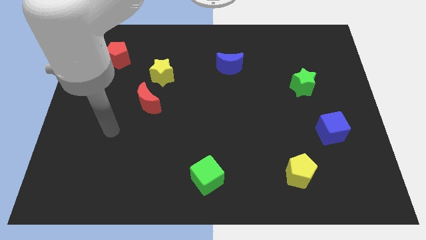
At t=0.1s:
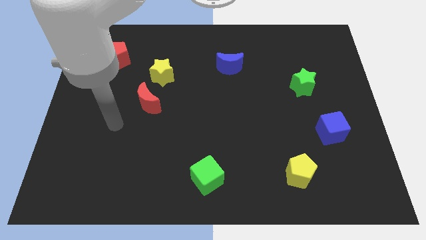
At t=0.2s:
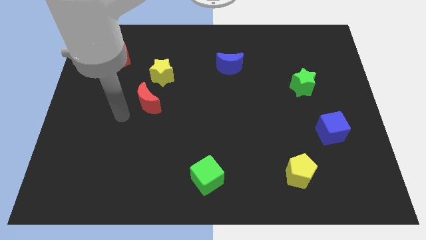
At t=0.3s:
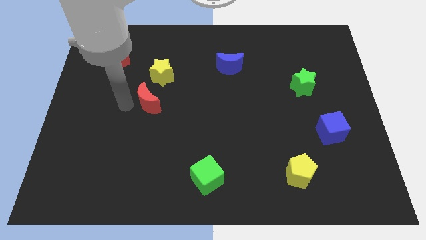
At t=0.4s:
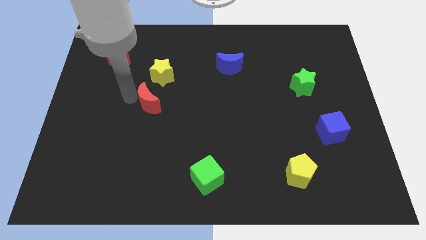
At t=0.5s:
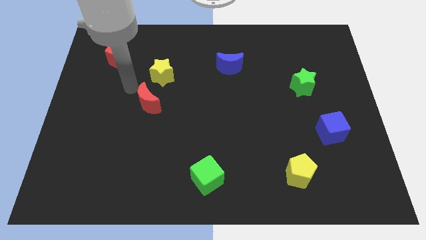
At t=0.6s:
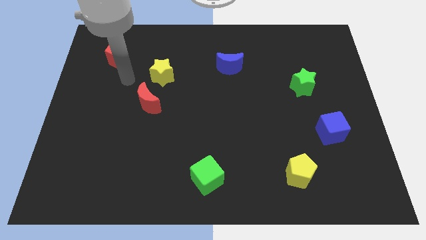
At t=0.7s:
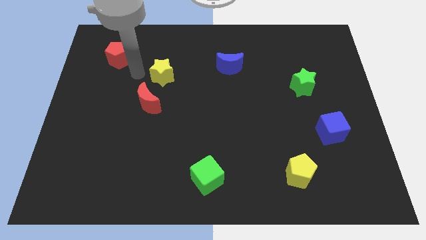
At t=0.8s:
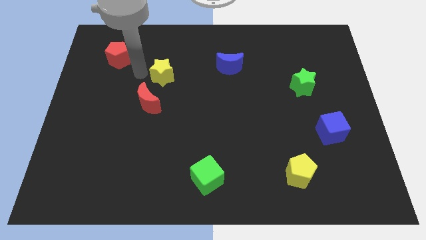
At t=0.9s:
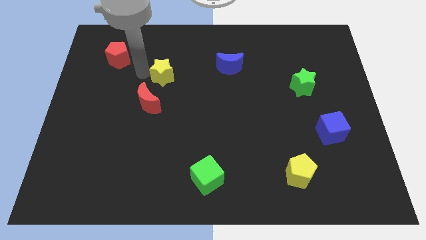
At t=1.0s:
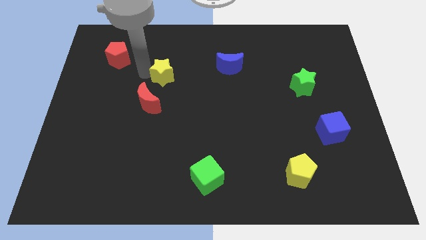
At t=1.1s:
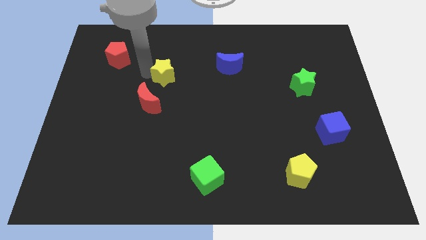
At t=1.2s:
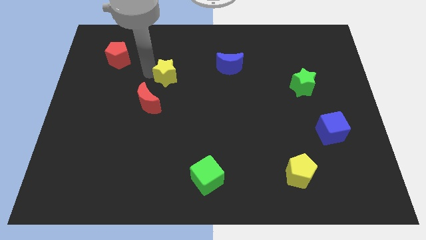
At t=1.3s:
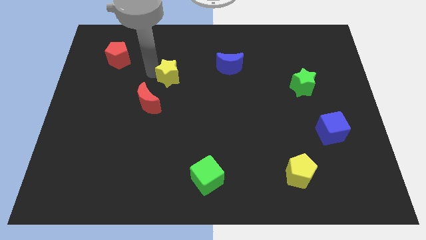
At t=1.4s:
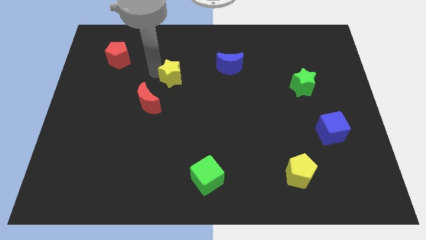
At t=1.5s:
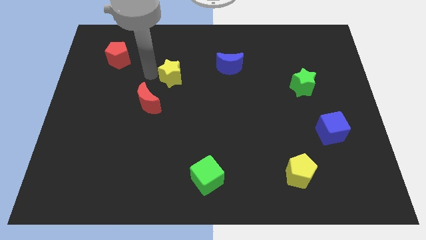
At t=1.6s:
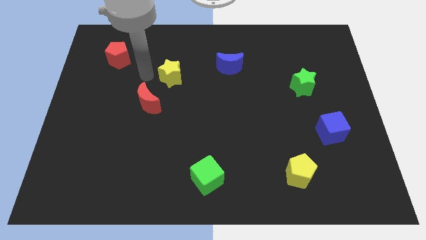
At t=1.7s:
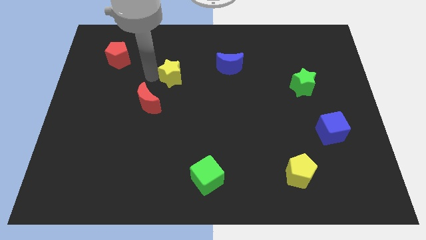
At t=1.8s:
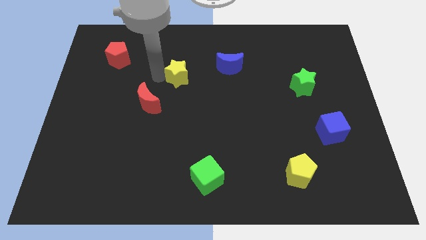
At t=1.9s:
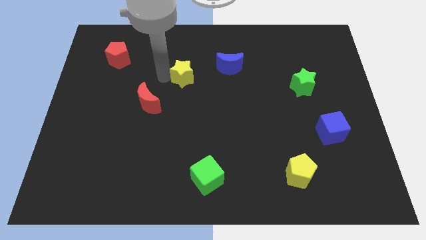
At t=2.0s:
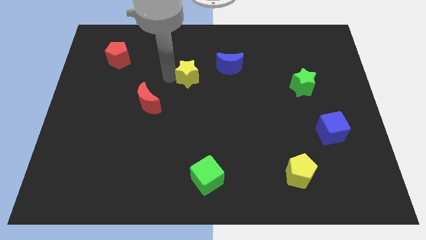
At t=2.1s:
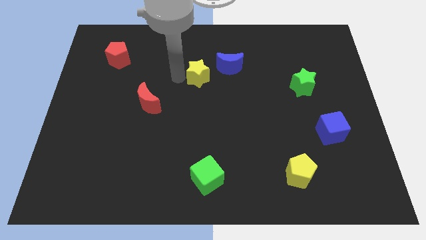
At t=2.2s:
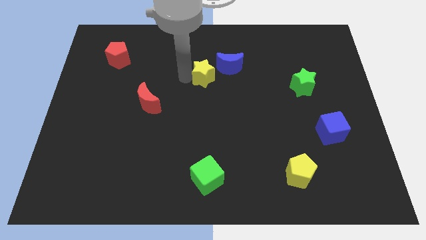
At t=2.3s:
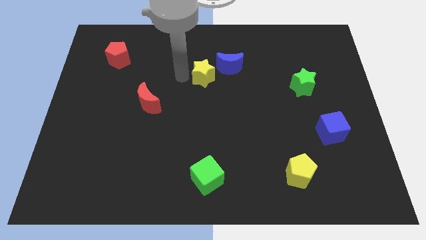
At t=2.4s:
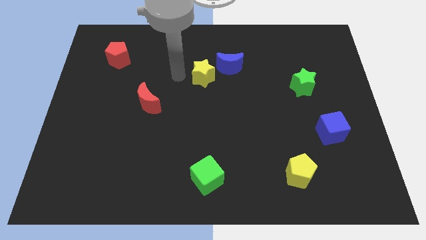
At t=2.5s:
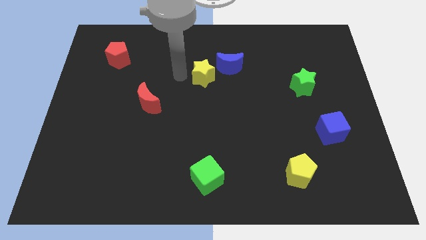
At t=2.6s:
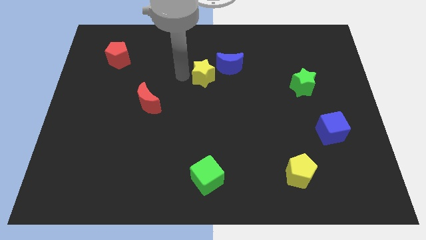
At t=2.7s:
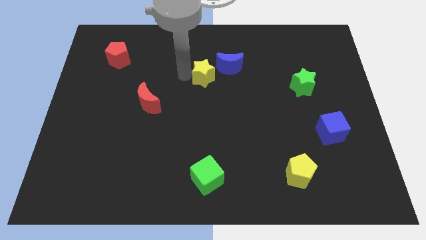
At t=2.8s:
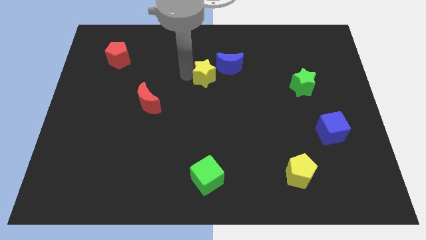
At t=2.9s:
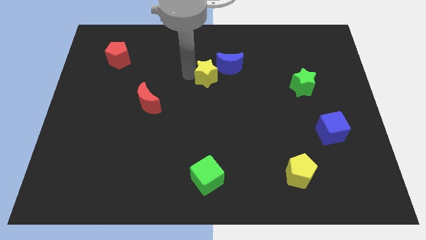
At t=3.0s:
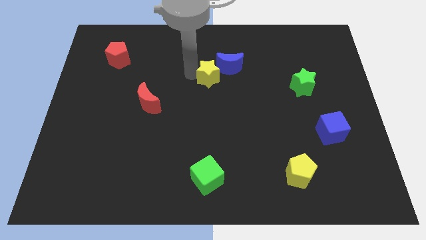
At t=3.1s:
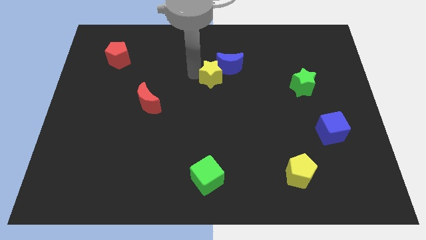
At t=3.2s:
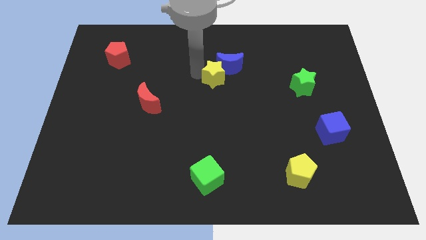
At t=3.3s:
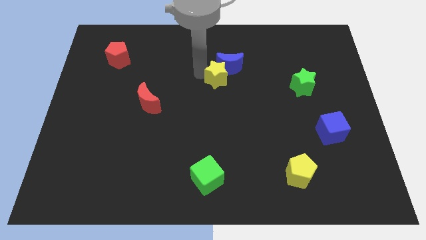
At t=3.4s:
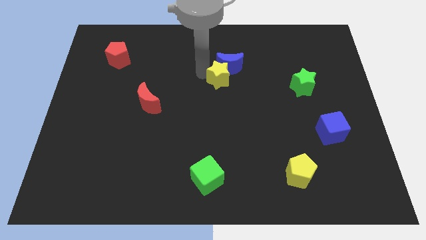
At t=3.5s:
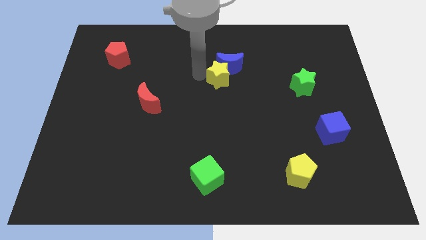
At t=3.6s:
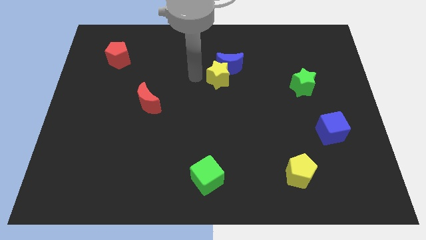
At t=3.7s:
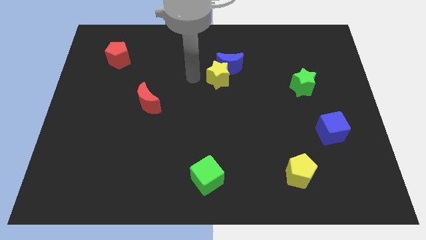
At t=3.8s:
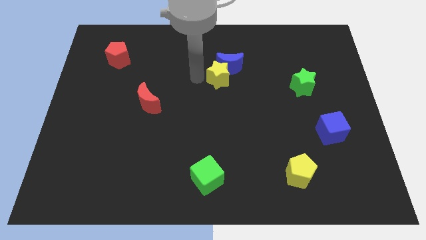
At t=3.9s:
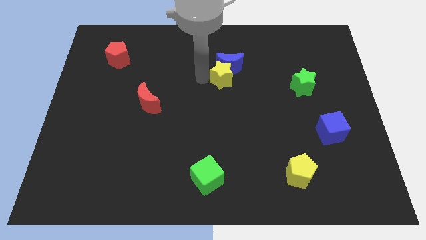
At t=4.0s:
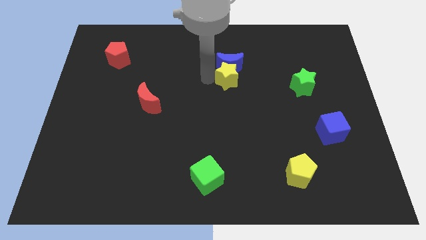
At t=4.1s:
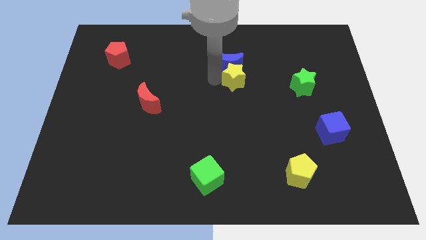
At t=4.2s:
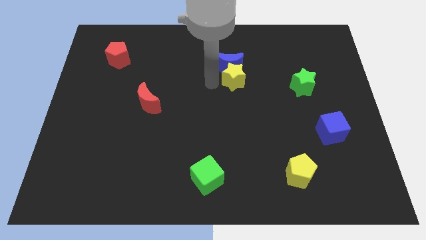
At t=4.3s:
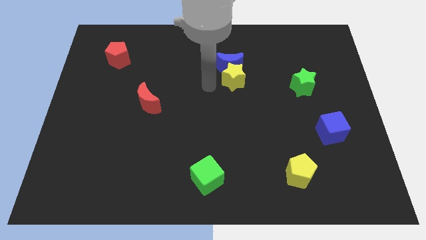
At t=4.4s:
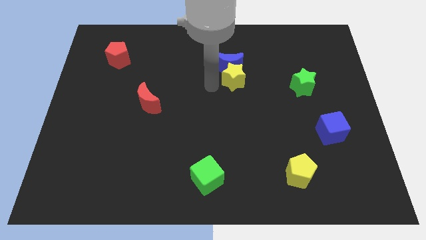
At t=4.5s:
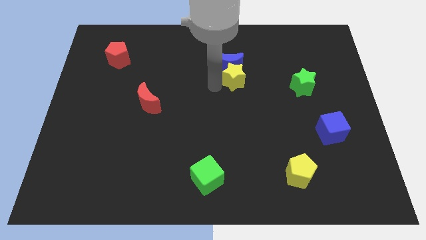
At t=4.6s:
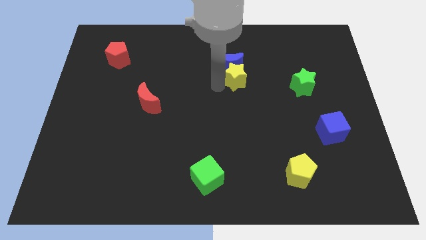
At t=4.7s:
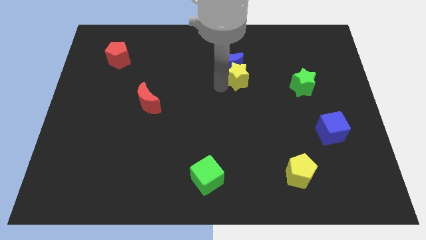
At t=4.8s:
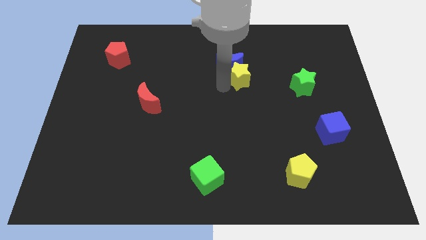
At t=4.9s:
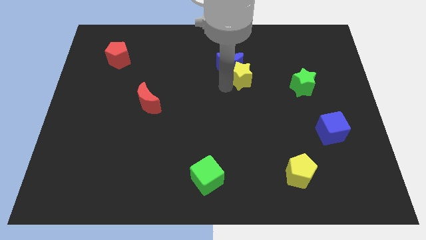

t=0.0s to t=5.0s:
slide the yellow star right

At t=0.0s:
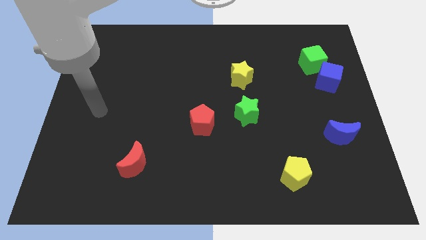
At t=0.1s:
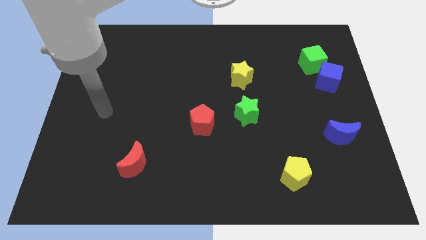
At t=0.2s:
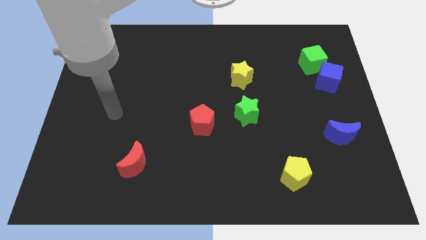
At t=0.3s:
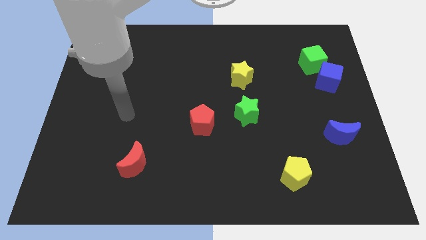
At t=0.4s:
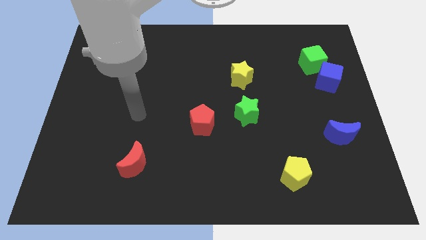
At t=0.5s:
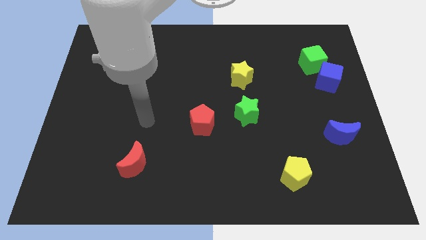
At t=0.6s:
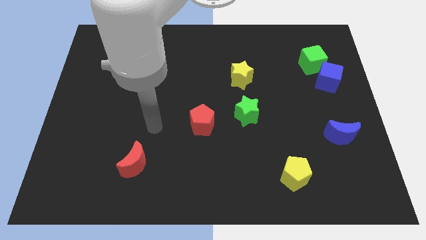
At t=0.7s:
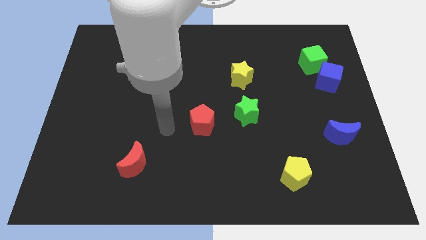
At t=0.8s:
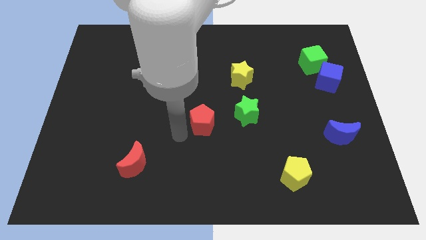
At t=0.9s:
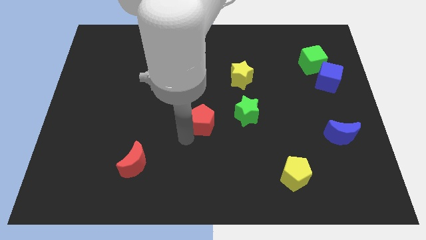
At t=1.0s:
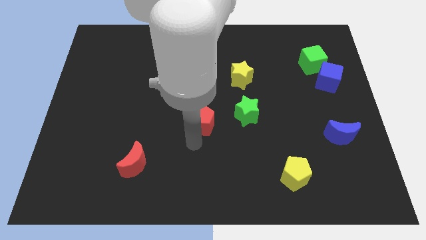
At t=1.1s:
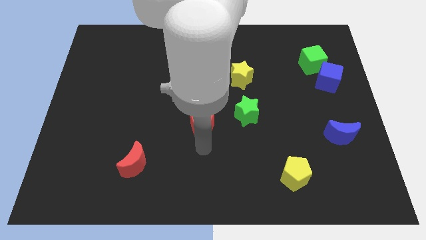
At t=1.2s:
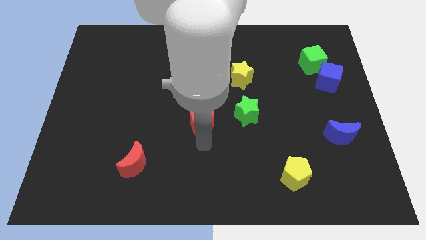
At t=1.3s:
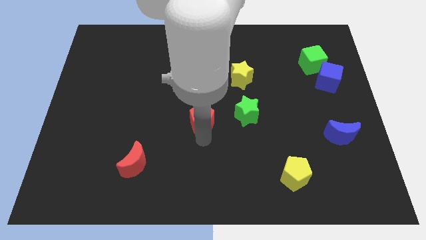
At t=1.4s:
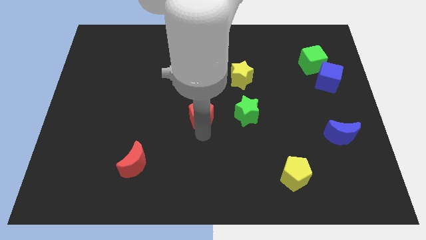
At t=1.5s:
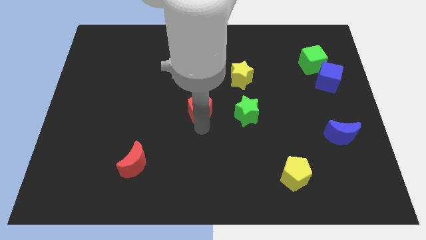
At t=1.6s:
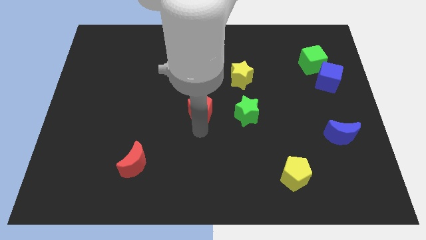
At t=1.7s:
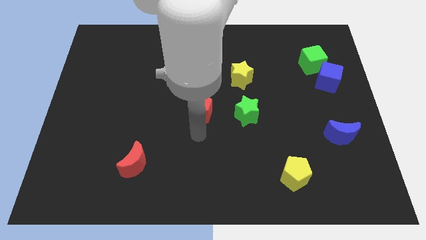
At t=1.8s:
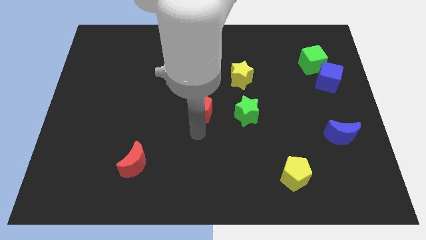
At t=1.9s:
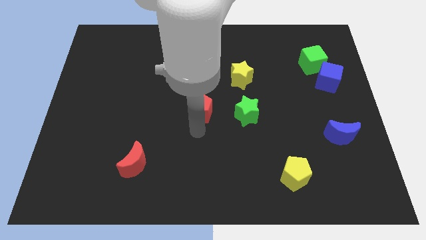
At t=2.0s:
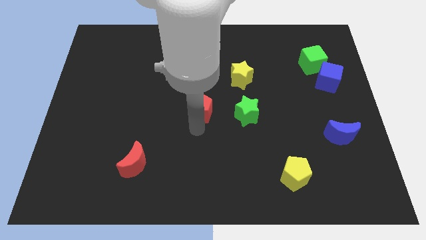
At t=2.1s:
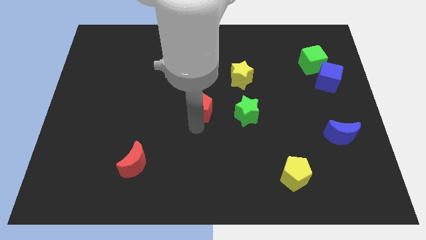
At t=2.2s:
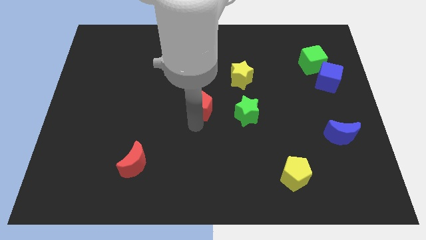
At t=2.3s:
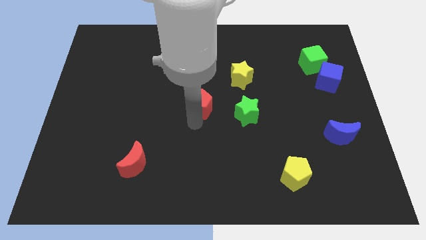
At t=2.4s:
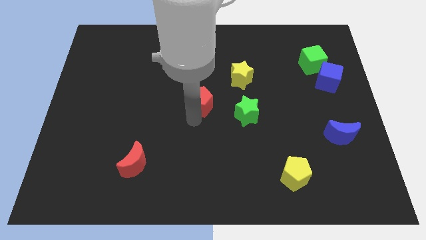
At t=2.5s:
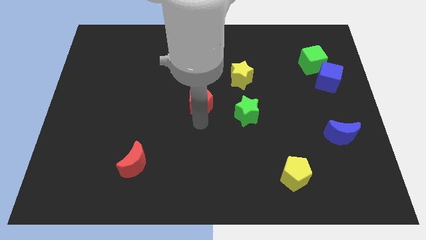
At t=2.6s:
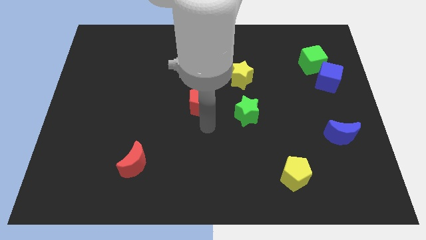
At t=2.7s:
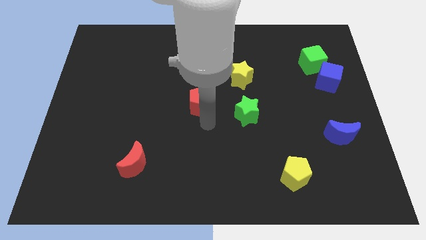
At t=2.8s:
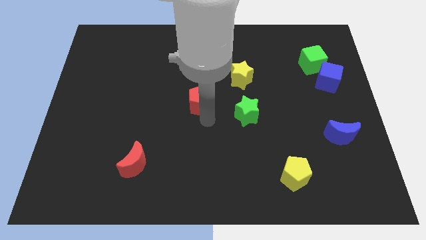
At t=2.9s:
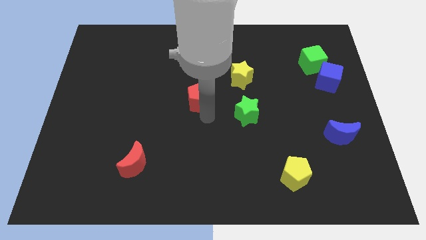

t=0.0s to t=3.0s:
slightly move the red pentagon upwards
